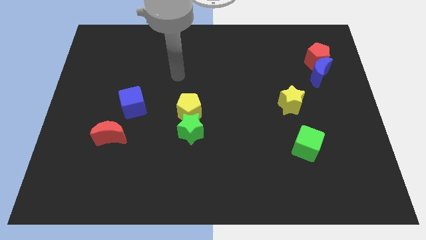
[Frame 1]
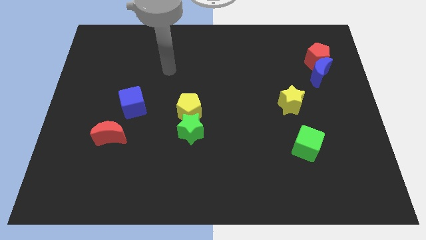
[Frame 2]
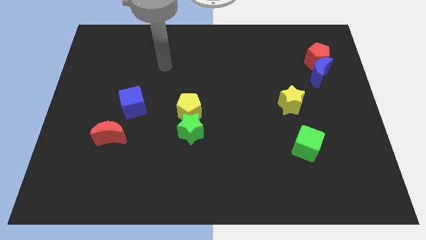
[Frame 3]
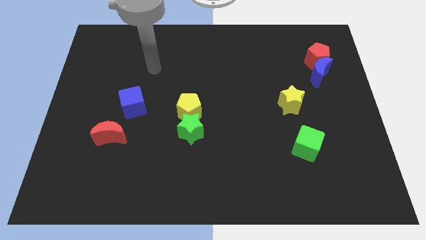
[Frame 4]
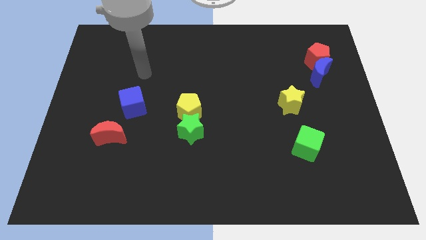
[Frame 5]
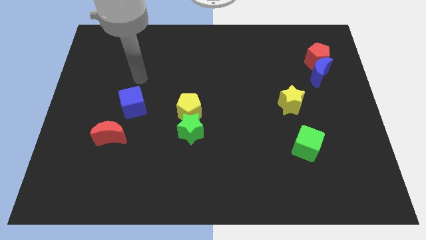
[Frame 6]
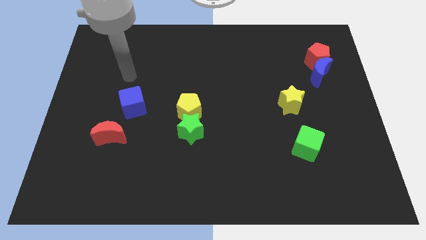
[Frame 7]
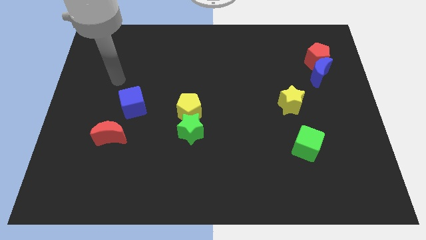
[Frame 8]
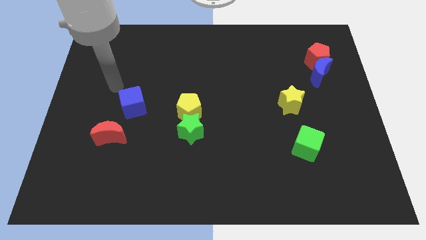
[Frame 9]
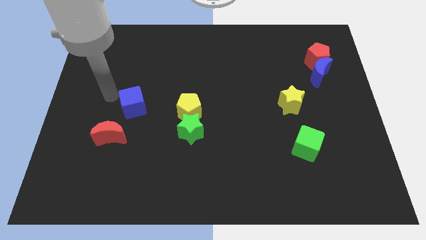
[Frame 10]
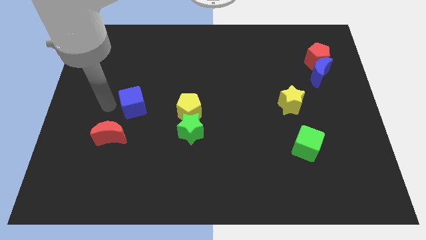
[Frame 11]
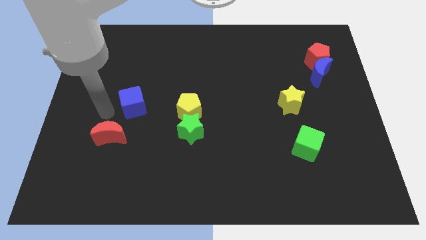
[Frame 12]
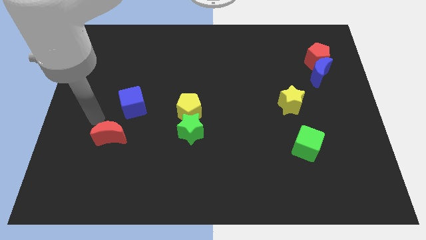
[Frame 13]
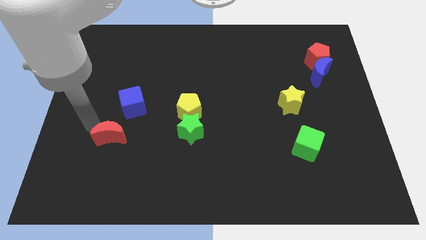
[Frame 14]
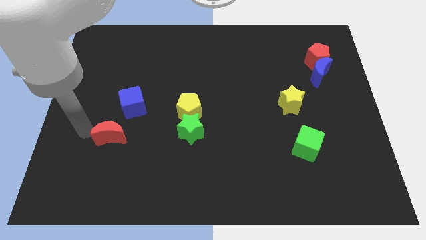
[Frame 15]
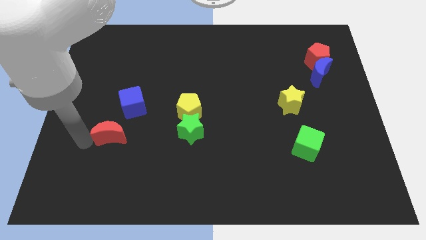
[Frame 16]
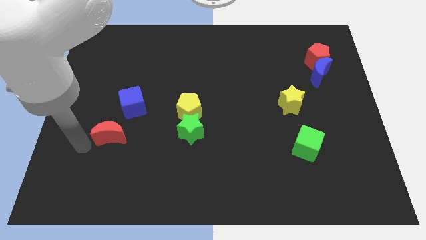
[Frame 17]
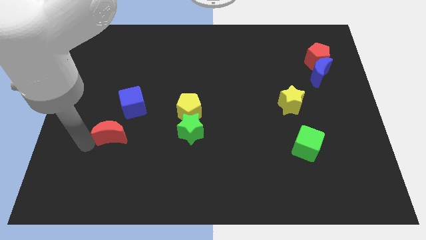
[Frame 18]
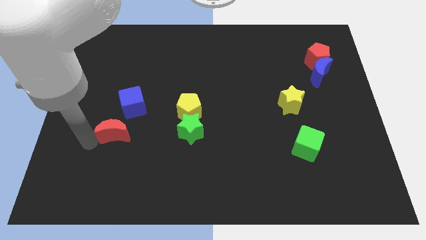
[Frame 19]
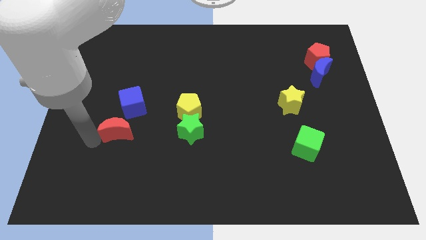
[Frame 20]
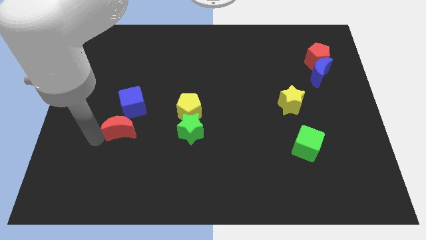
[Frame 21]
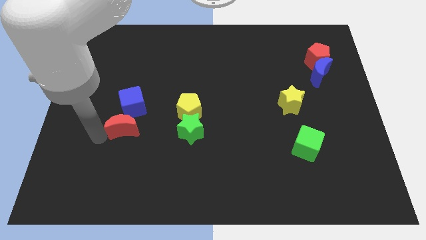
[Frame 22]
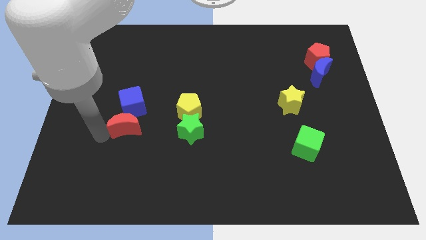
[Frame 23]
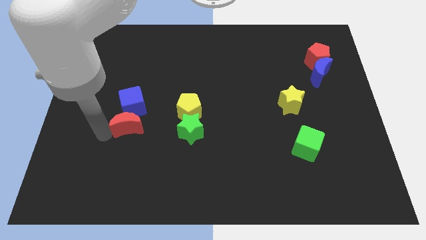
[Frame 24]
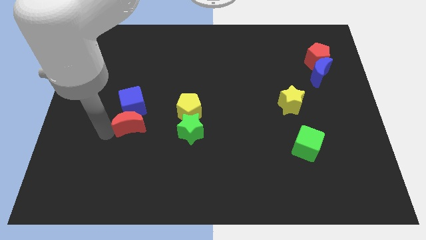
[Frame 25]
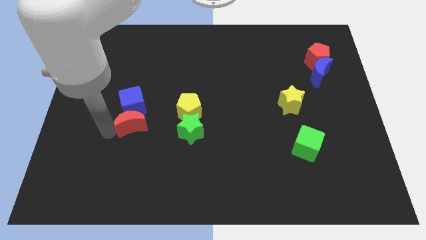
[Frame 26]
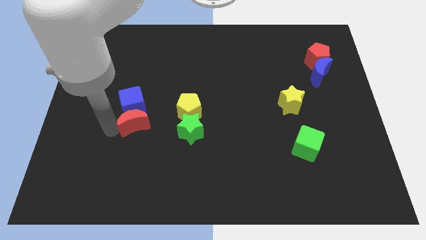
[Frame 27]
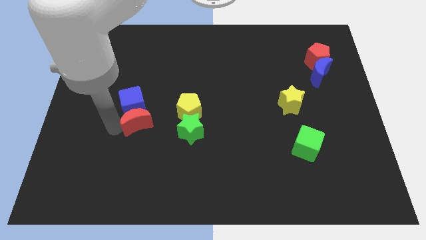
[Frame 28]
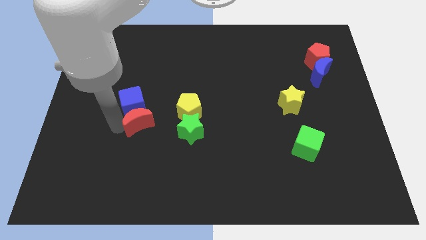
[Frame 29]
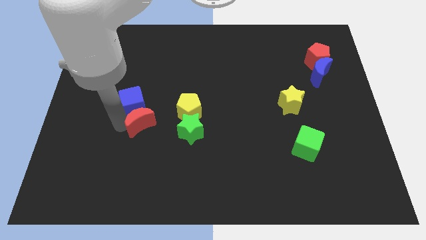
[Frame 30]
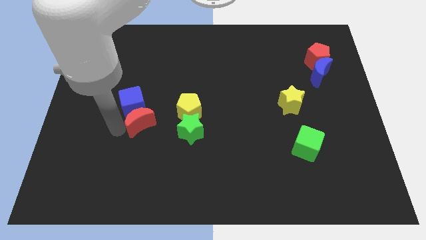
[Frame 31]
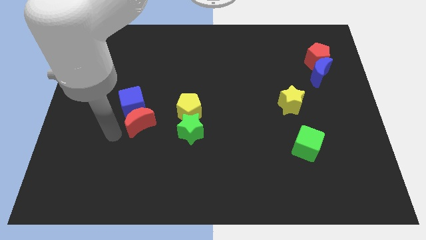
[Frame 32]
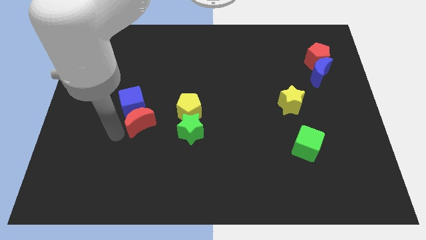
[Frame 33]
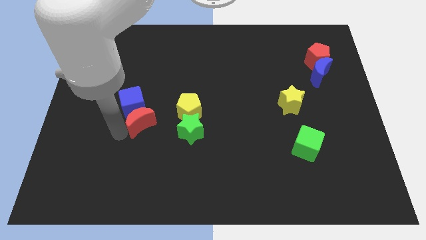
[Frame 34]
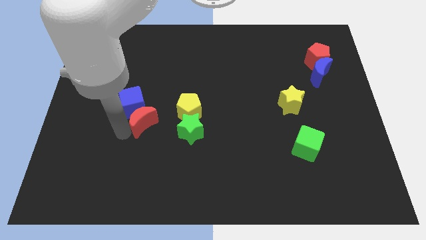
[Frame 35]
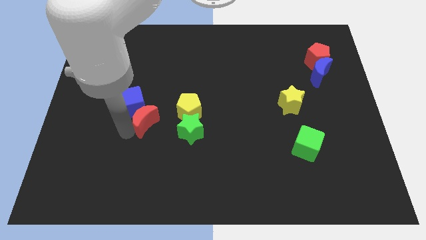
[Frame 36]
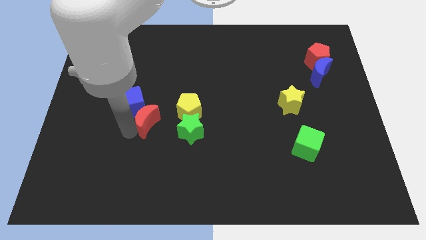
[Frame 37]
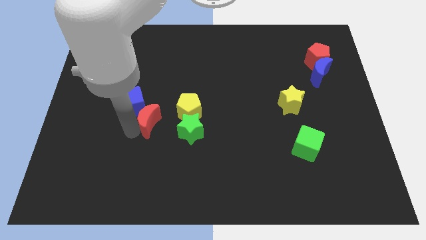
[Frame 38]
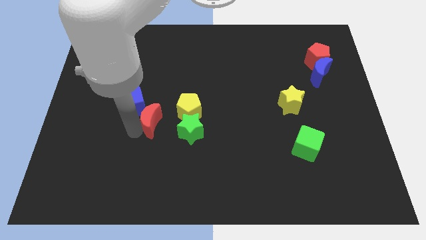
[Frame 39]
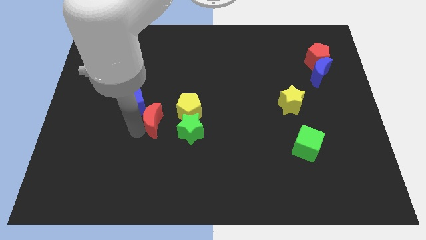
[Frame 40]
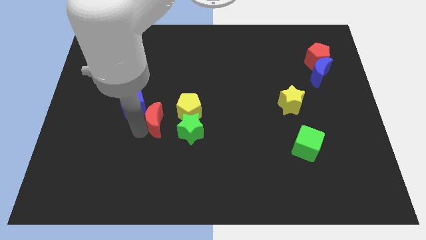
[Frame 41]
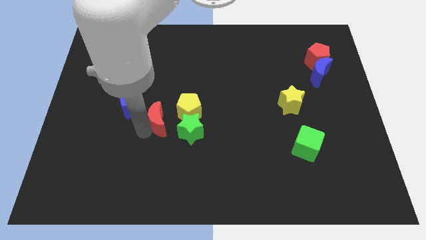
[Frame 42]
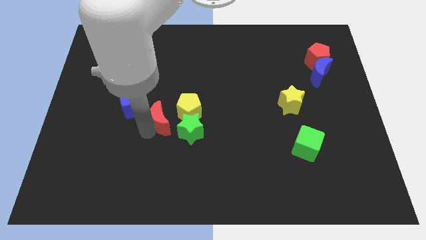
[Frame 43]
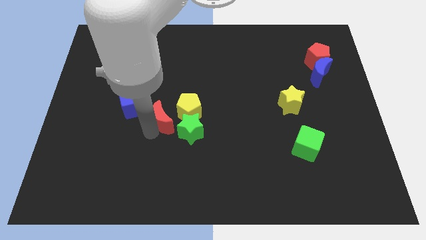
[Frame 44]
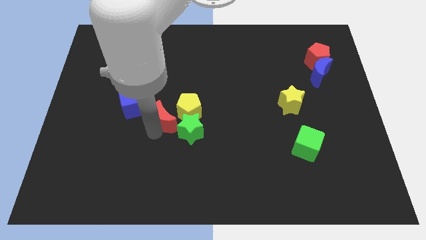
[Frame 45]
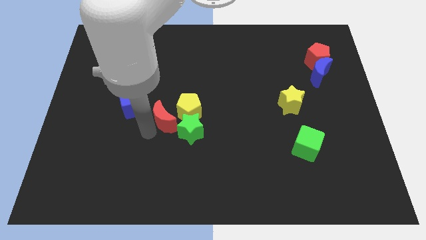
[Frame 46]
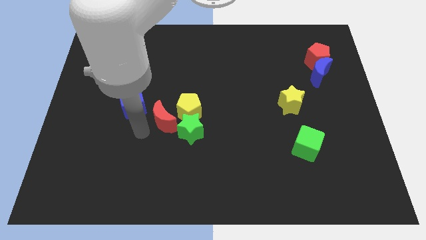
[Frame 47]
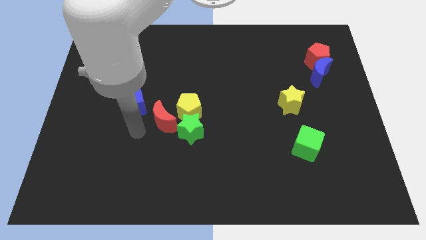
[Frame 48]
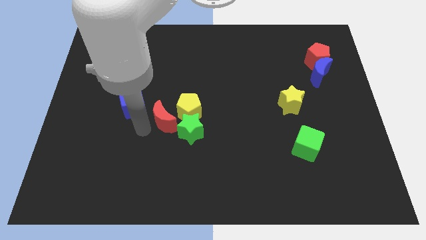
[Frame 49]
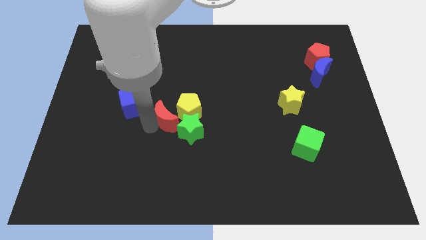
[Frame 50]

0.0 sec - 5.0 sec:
slide the red moon close to the yellow pentagon

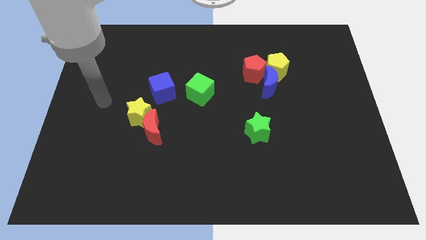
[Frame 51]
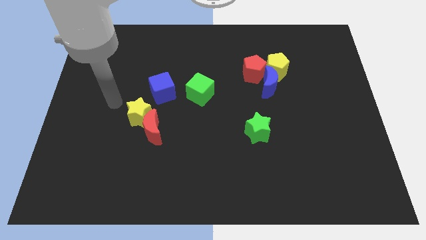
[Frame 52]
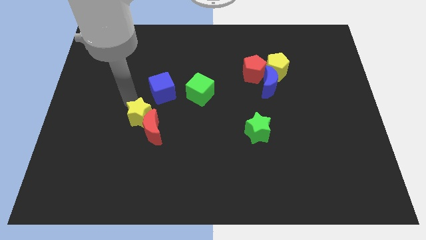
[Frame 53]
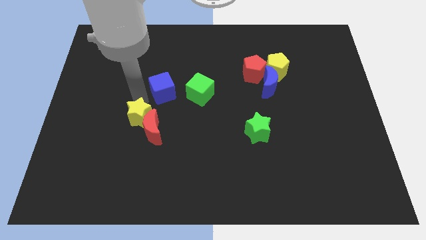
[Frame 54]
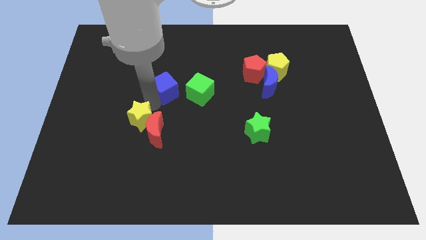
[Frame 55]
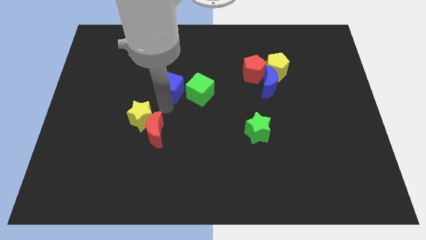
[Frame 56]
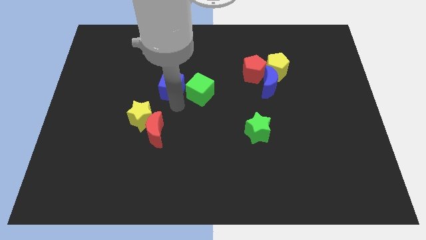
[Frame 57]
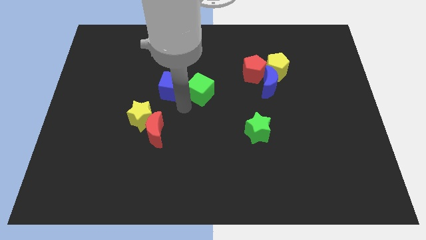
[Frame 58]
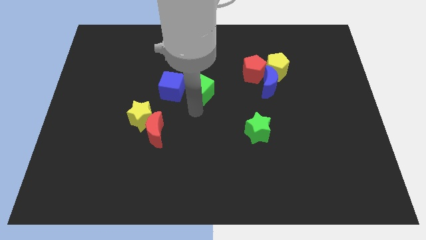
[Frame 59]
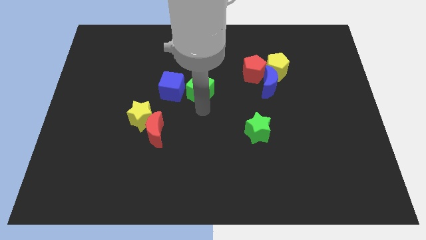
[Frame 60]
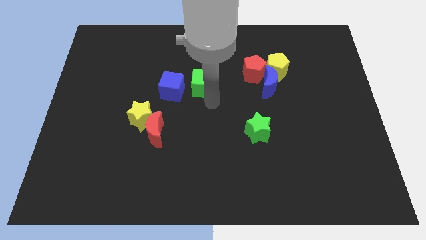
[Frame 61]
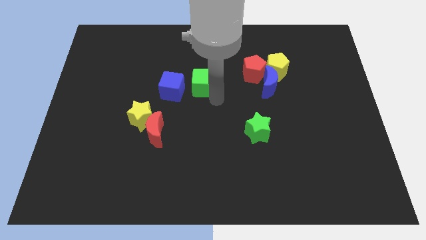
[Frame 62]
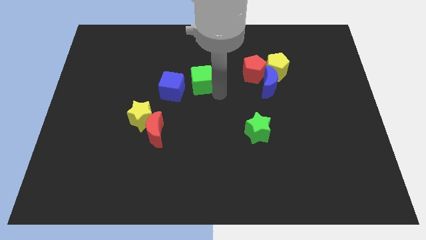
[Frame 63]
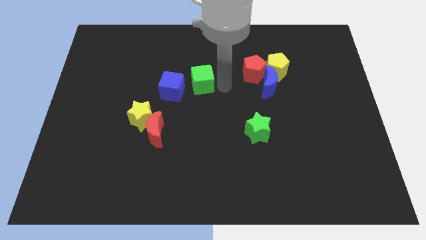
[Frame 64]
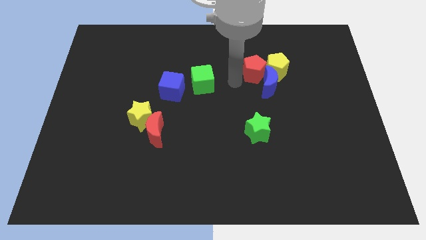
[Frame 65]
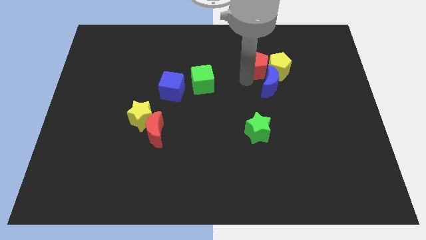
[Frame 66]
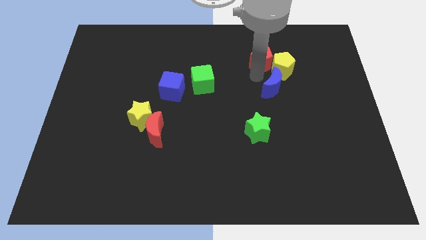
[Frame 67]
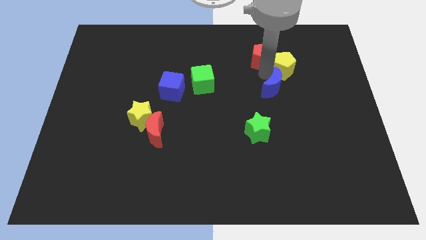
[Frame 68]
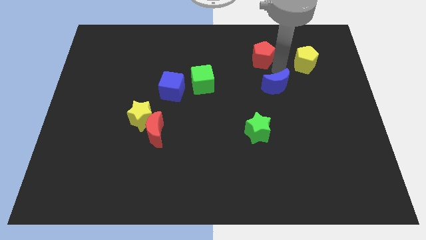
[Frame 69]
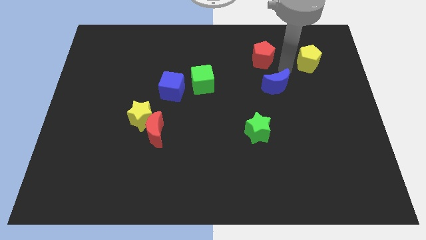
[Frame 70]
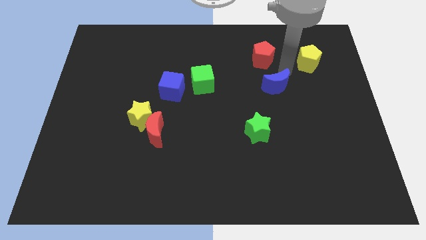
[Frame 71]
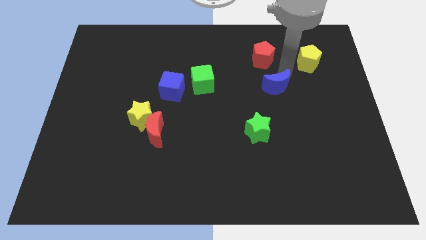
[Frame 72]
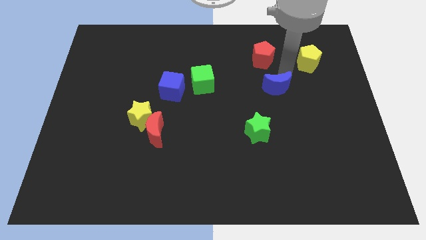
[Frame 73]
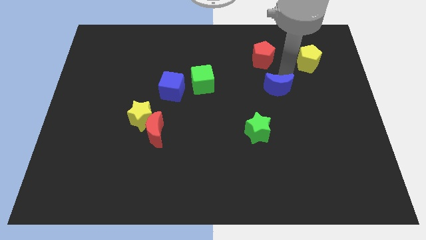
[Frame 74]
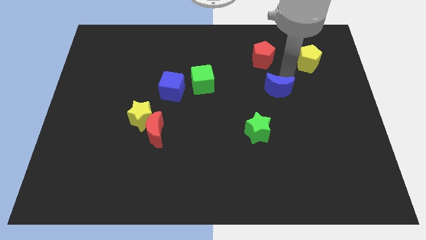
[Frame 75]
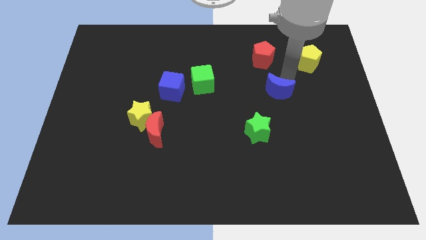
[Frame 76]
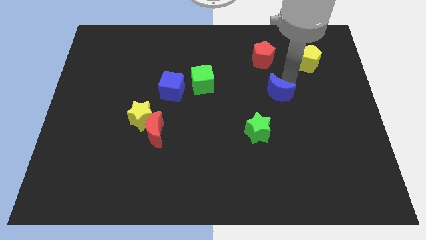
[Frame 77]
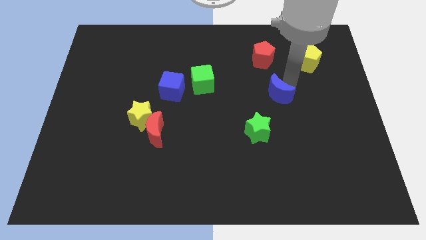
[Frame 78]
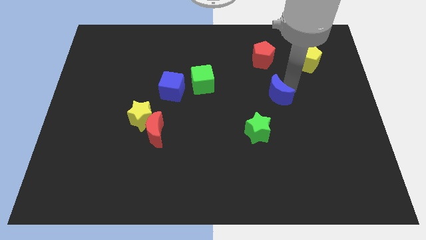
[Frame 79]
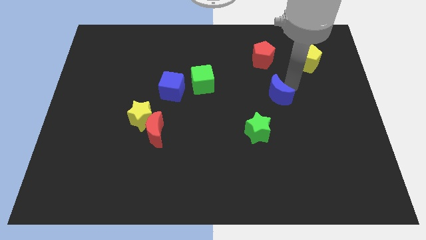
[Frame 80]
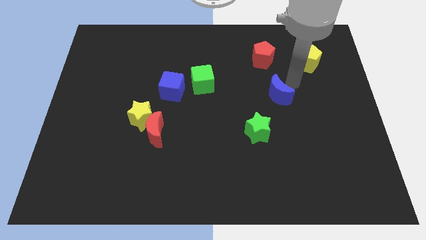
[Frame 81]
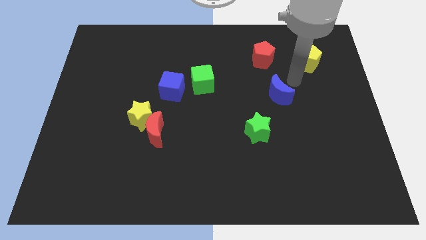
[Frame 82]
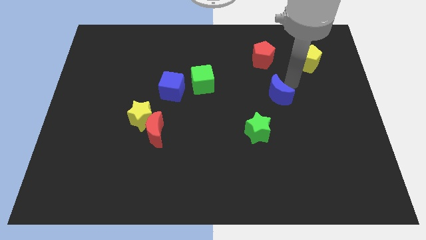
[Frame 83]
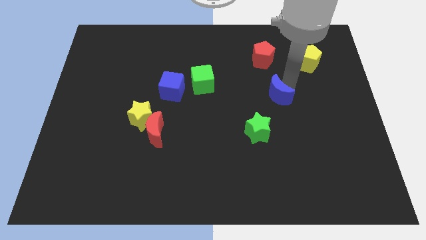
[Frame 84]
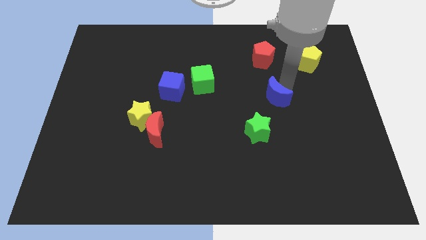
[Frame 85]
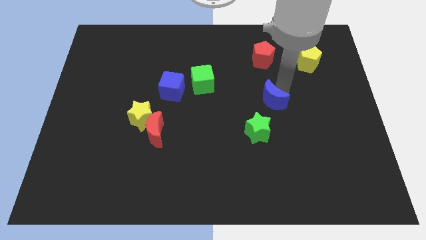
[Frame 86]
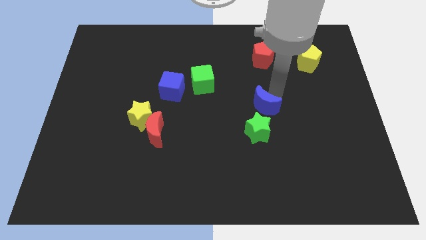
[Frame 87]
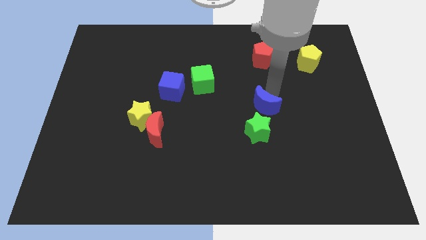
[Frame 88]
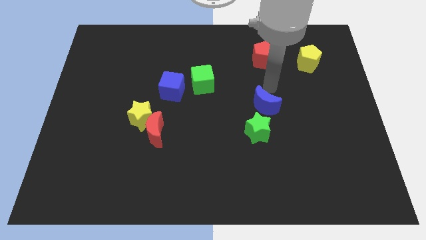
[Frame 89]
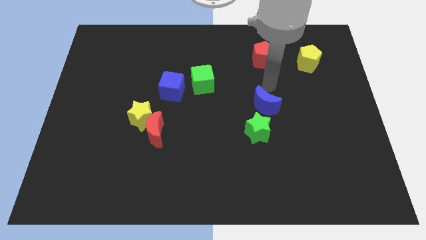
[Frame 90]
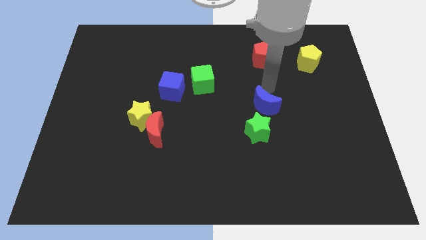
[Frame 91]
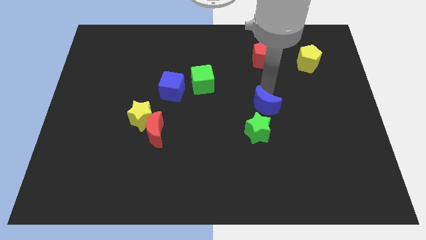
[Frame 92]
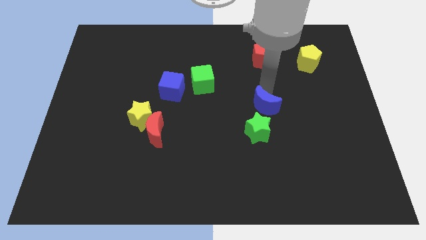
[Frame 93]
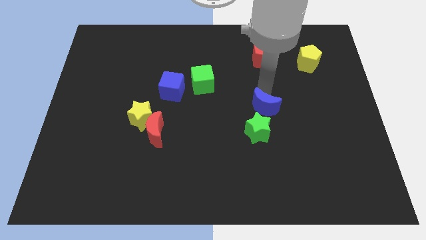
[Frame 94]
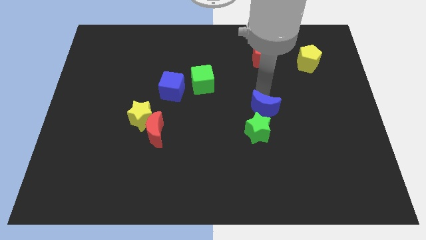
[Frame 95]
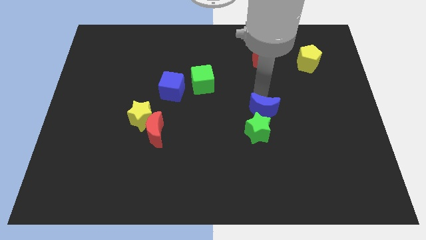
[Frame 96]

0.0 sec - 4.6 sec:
put the blue moon towards the green star
